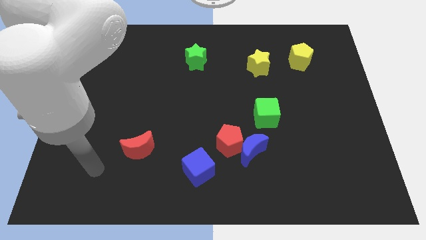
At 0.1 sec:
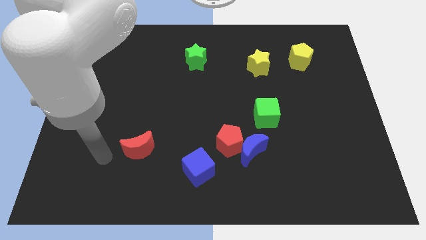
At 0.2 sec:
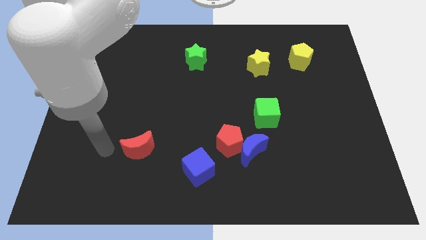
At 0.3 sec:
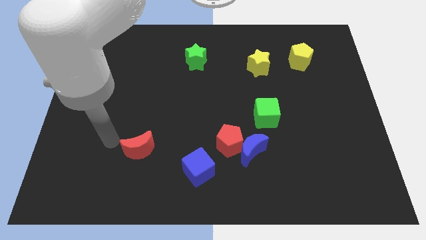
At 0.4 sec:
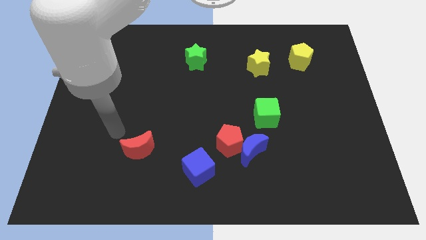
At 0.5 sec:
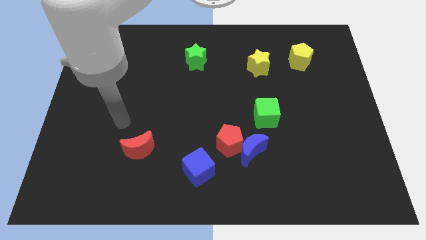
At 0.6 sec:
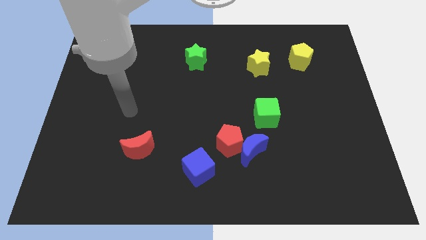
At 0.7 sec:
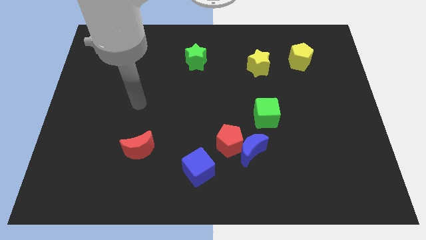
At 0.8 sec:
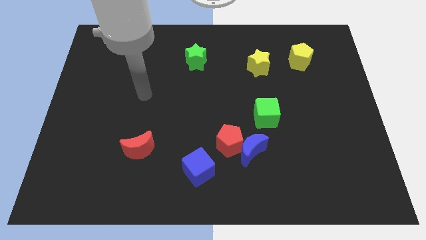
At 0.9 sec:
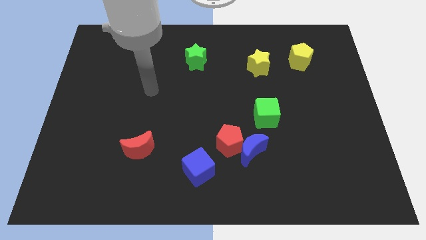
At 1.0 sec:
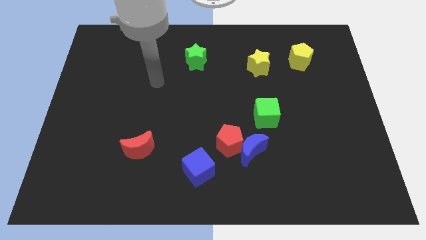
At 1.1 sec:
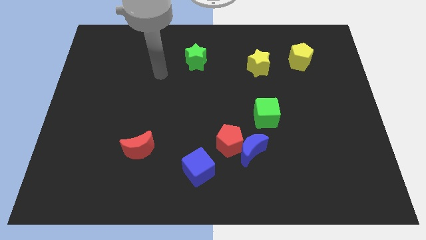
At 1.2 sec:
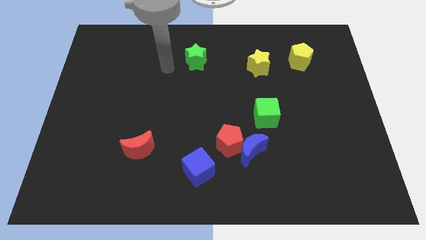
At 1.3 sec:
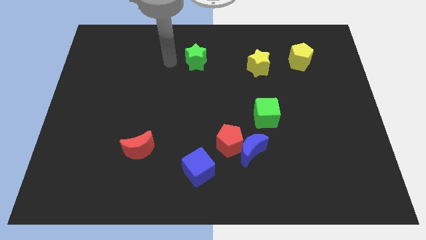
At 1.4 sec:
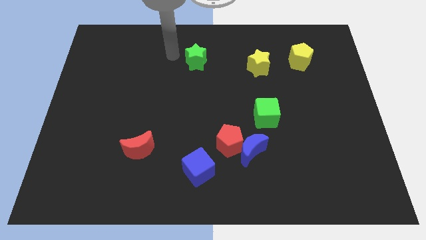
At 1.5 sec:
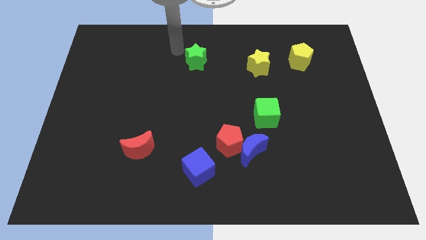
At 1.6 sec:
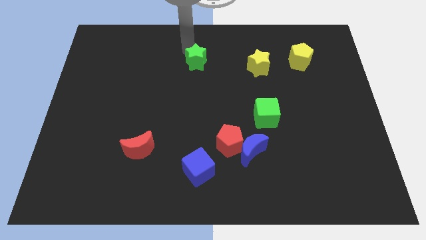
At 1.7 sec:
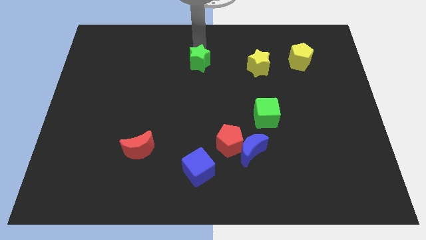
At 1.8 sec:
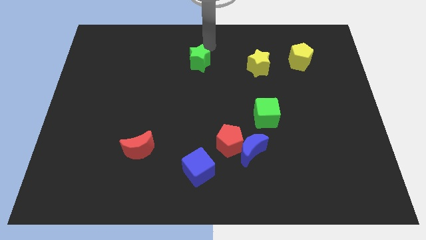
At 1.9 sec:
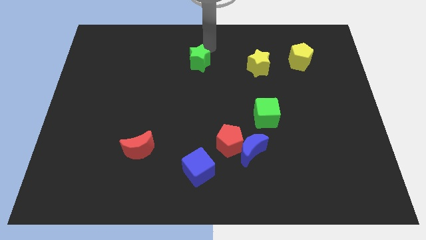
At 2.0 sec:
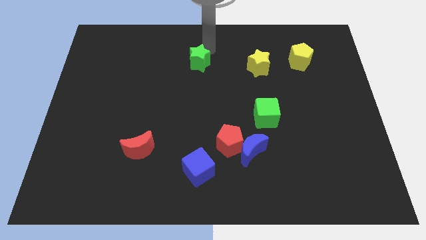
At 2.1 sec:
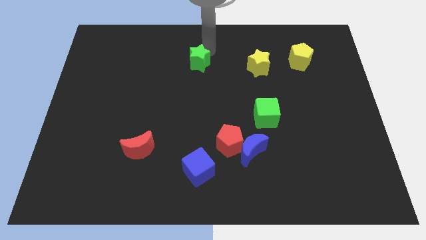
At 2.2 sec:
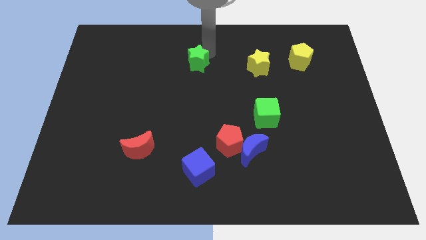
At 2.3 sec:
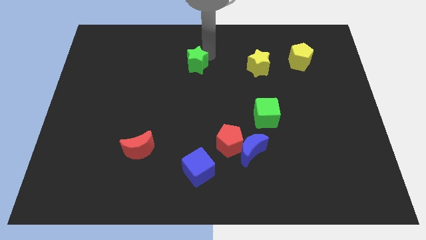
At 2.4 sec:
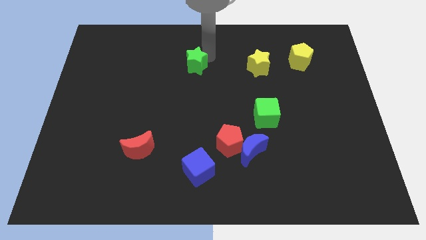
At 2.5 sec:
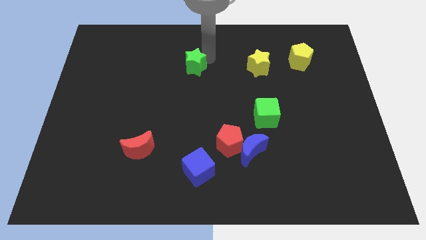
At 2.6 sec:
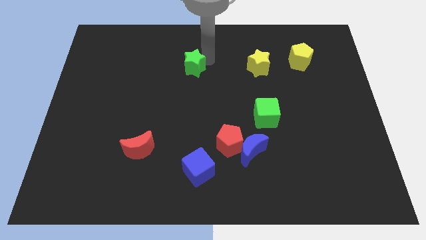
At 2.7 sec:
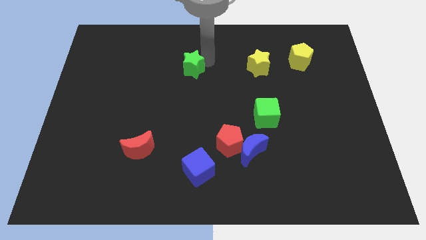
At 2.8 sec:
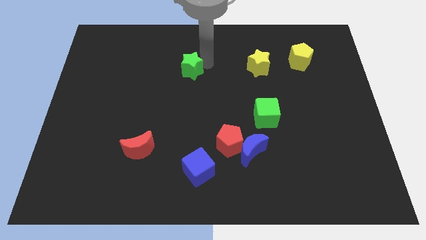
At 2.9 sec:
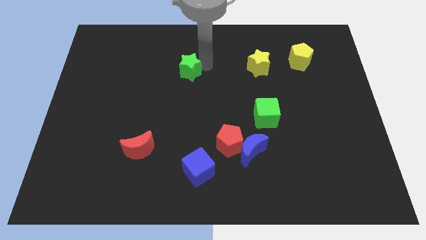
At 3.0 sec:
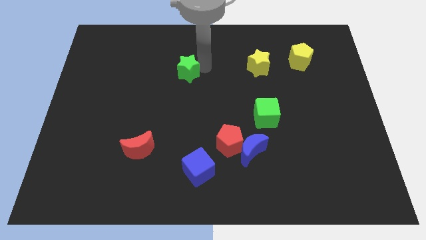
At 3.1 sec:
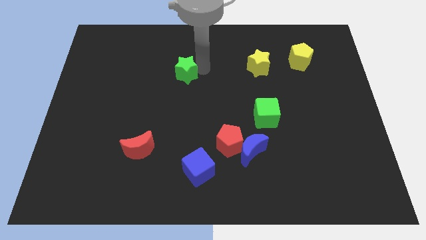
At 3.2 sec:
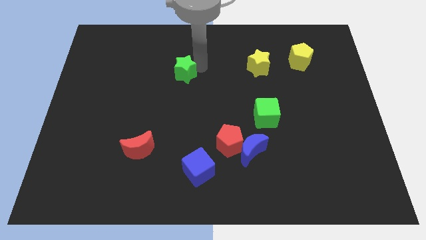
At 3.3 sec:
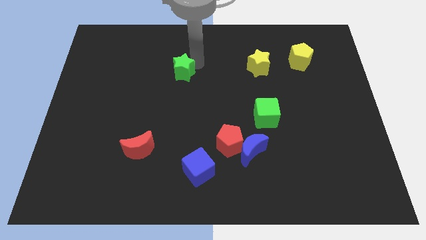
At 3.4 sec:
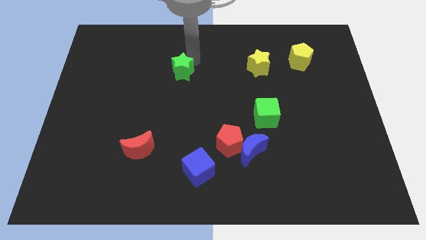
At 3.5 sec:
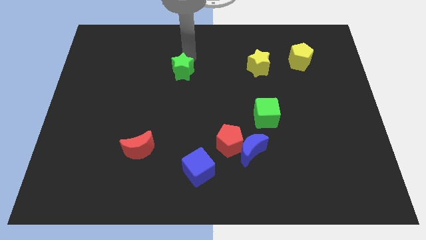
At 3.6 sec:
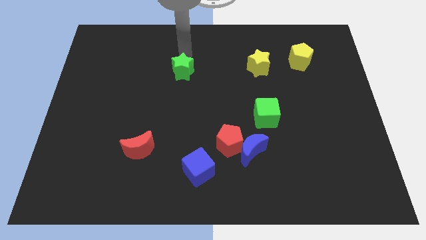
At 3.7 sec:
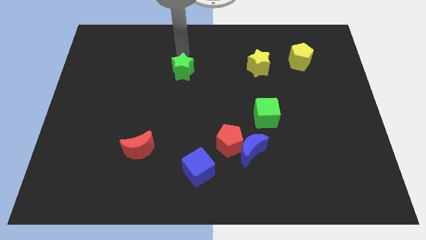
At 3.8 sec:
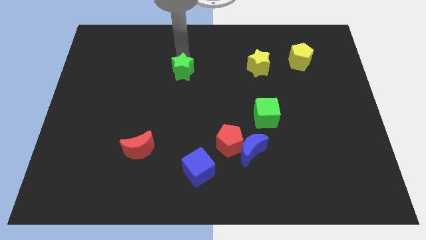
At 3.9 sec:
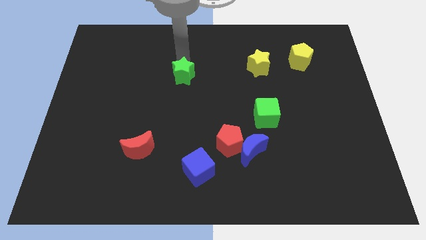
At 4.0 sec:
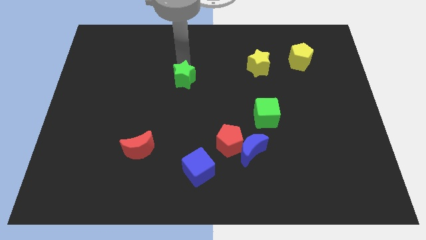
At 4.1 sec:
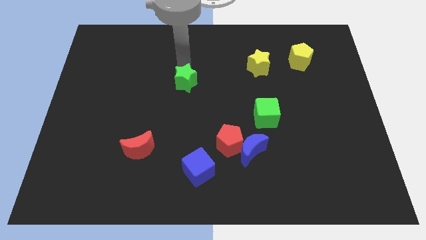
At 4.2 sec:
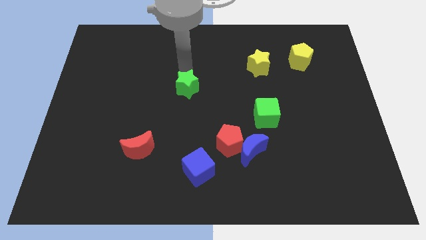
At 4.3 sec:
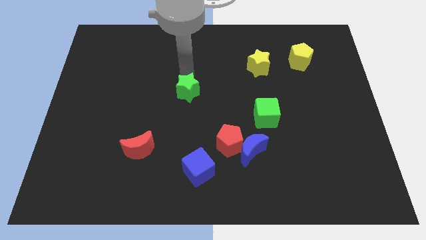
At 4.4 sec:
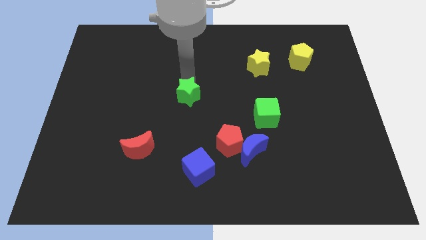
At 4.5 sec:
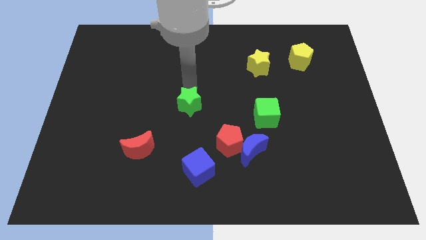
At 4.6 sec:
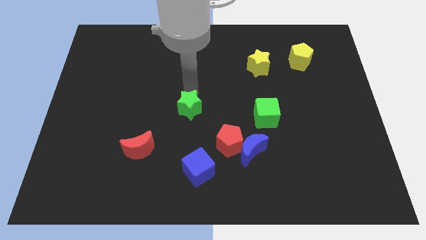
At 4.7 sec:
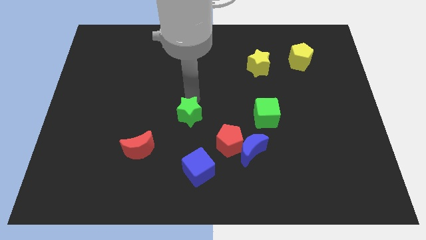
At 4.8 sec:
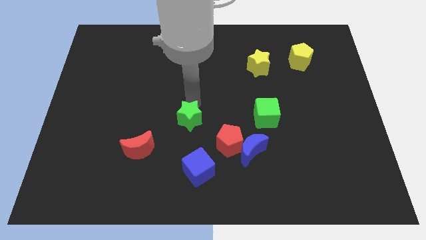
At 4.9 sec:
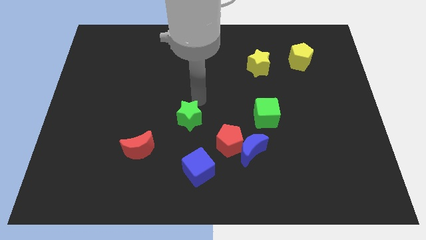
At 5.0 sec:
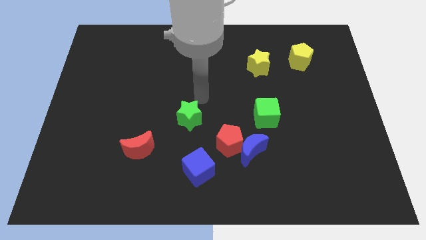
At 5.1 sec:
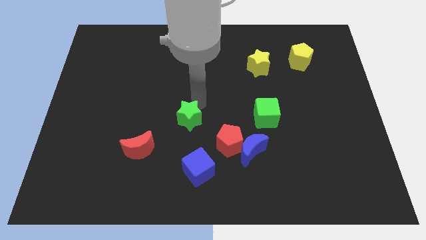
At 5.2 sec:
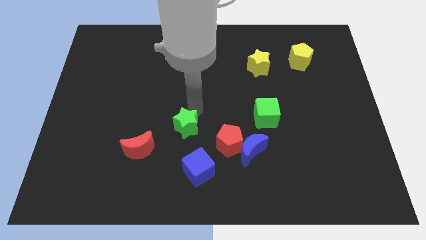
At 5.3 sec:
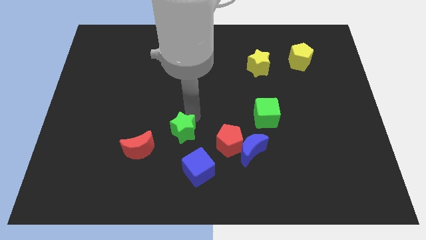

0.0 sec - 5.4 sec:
move the green star diagonally up and to the left of the blue cube

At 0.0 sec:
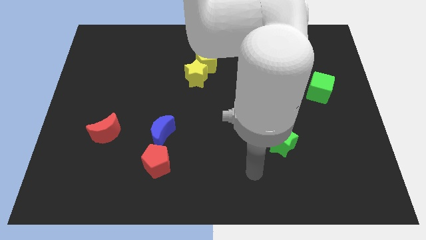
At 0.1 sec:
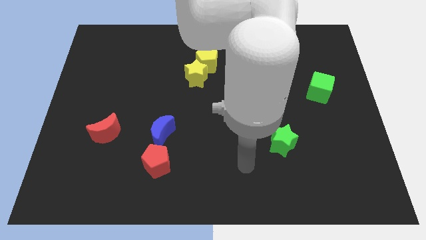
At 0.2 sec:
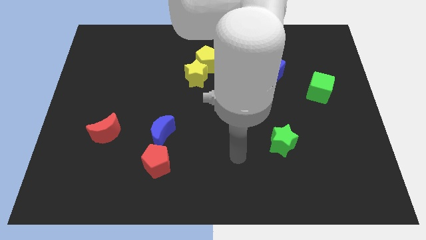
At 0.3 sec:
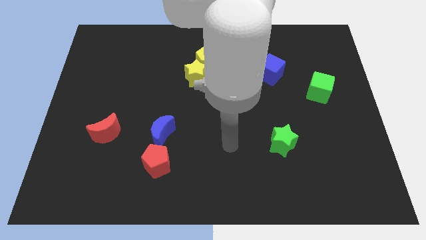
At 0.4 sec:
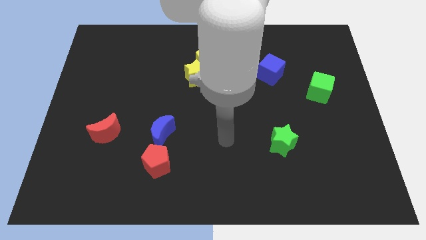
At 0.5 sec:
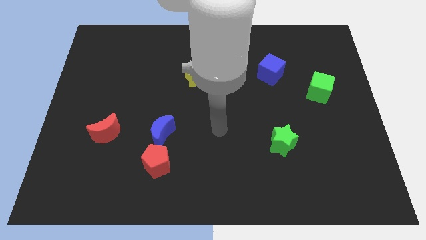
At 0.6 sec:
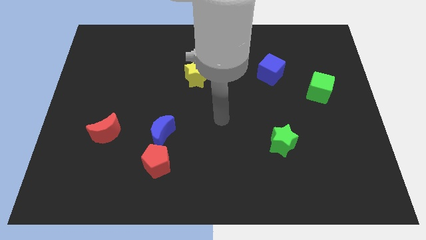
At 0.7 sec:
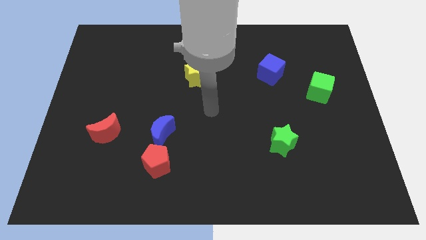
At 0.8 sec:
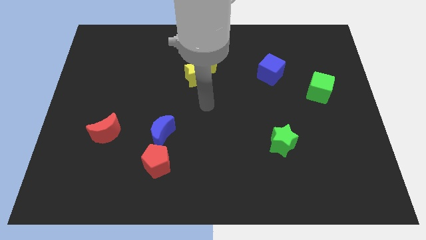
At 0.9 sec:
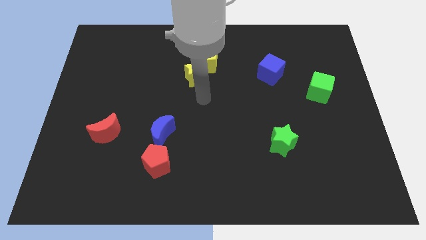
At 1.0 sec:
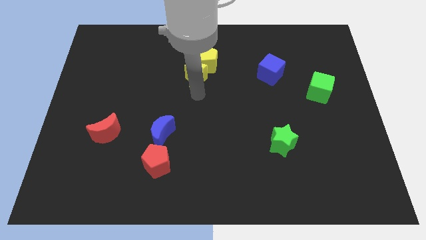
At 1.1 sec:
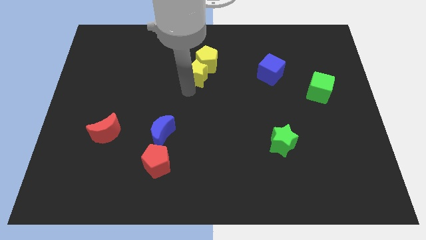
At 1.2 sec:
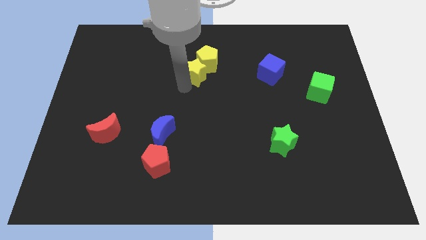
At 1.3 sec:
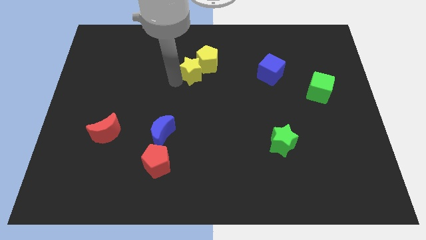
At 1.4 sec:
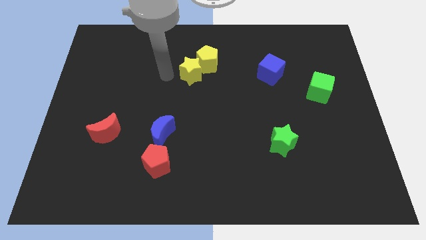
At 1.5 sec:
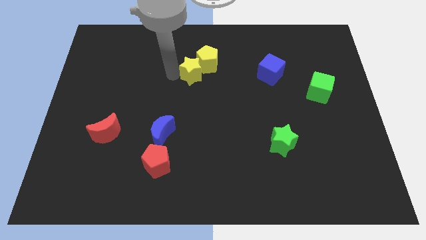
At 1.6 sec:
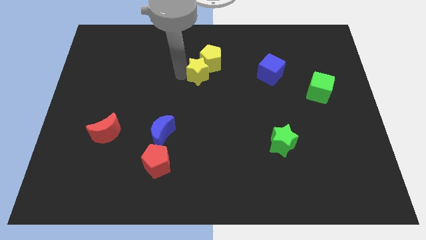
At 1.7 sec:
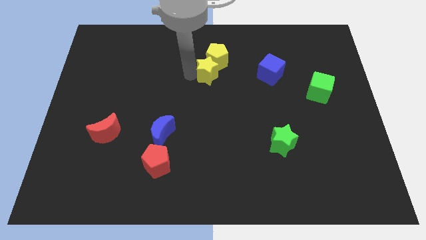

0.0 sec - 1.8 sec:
put the yellow star to the left side of the blue cube

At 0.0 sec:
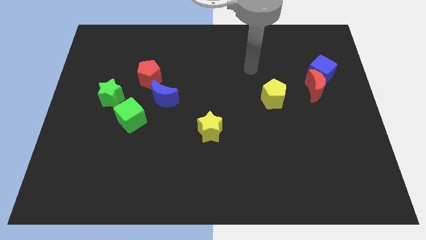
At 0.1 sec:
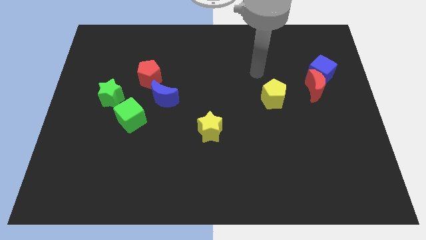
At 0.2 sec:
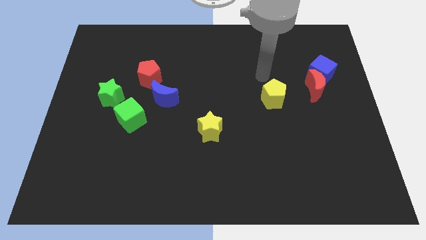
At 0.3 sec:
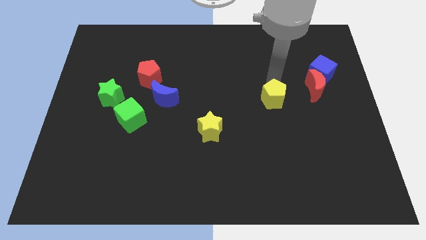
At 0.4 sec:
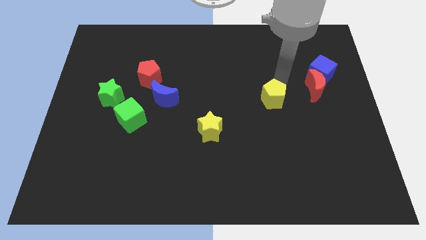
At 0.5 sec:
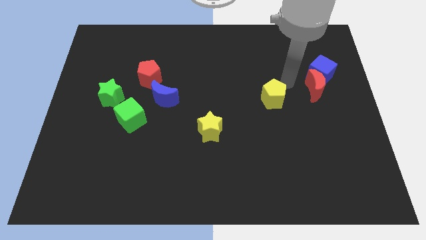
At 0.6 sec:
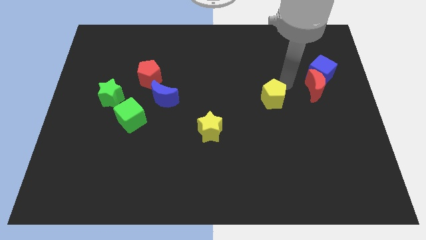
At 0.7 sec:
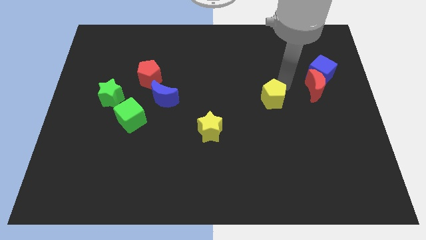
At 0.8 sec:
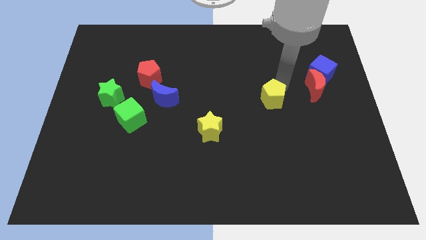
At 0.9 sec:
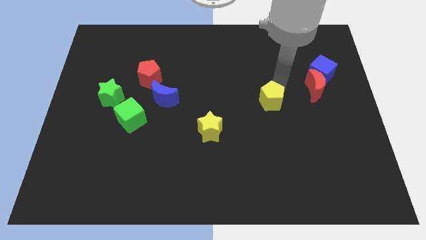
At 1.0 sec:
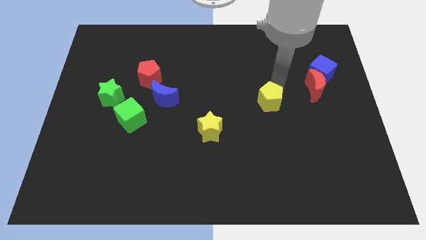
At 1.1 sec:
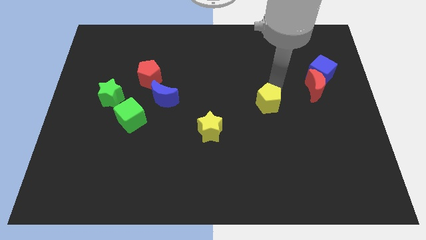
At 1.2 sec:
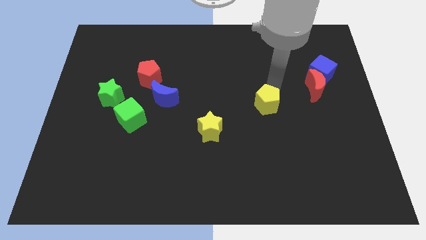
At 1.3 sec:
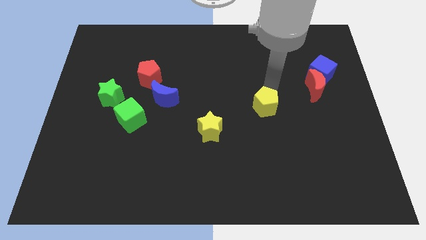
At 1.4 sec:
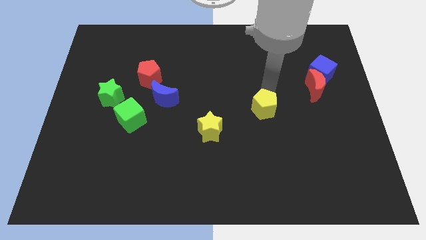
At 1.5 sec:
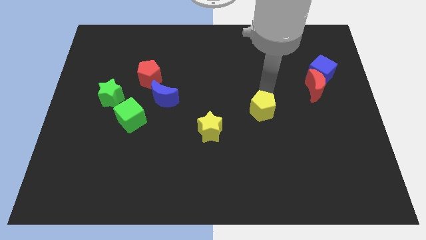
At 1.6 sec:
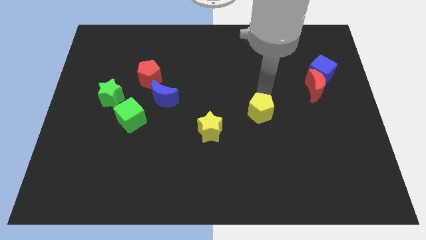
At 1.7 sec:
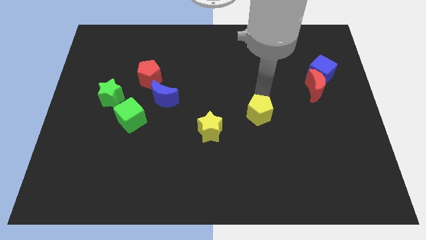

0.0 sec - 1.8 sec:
slide the yellow pentagon right of the yellow star
